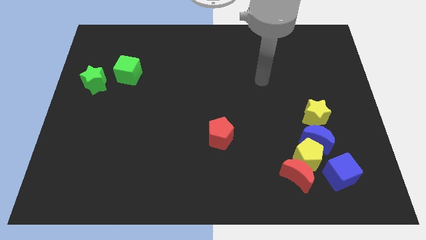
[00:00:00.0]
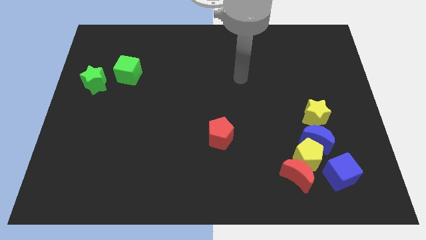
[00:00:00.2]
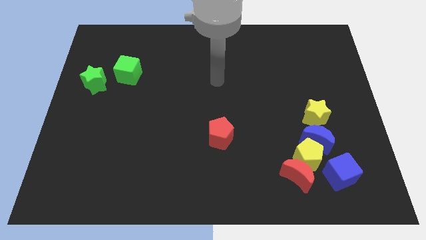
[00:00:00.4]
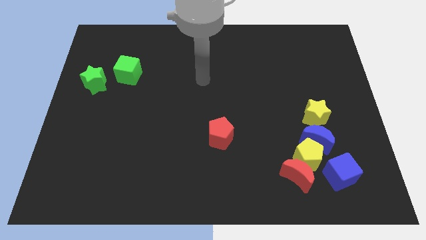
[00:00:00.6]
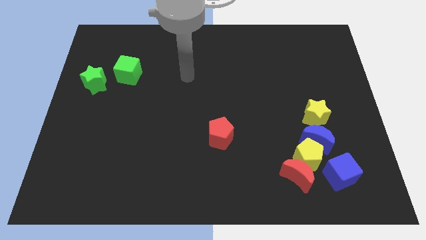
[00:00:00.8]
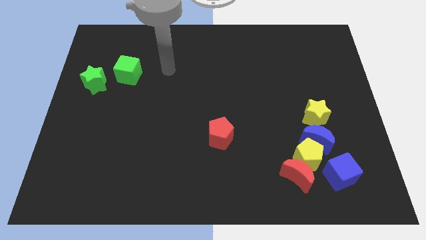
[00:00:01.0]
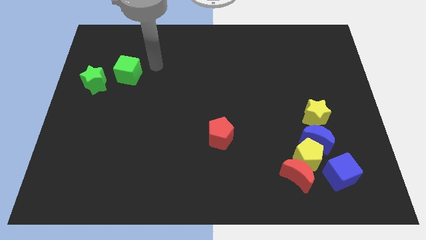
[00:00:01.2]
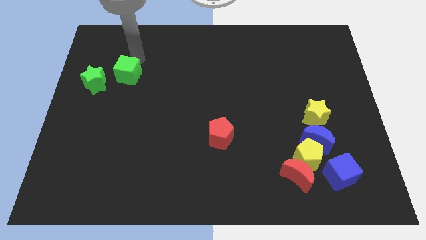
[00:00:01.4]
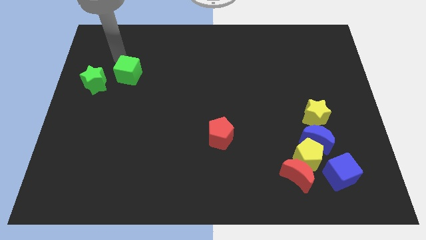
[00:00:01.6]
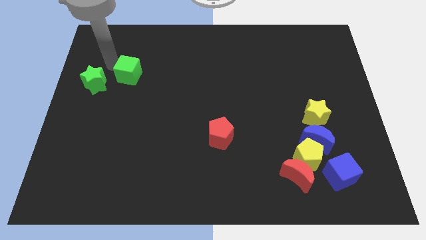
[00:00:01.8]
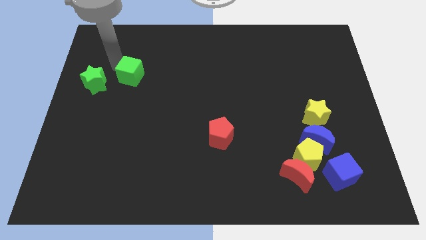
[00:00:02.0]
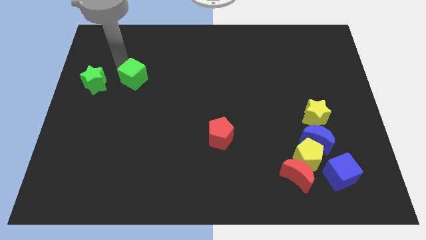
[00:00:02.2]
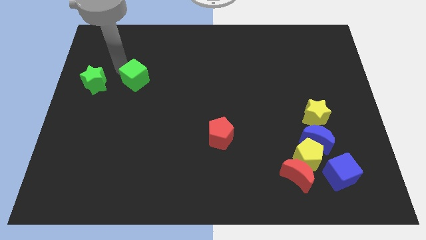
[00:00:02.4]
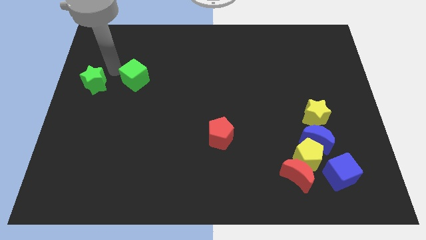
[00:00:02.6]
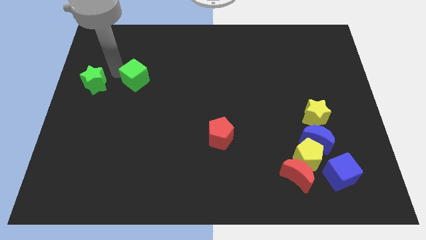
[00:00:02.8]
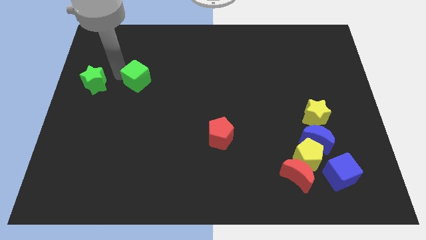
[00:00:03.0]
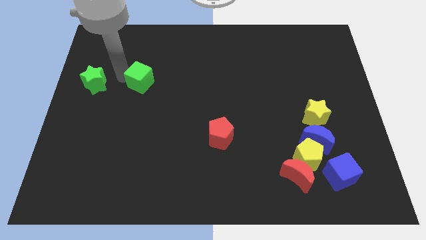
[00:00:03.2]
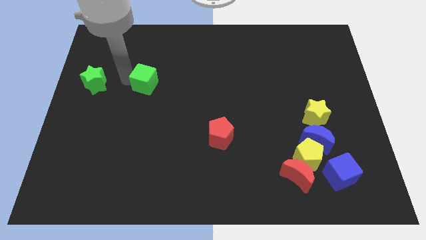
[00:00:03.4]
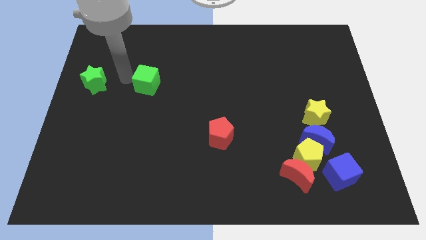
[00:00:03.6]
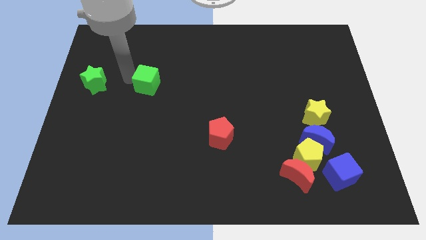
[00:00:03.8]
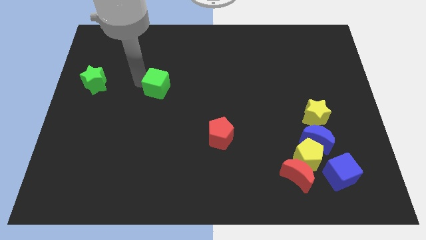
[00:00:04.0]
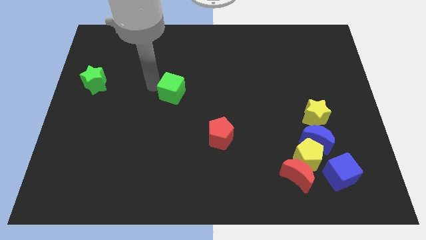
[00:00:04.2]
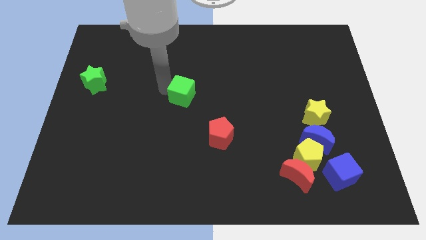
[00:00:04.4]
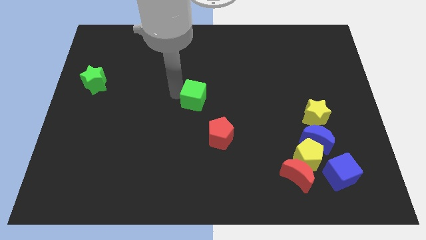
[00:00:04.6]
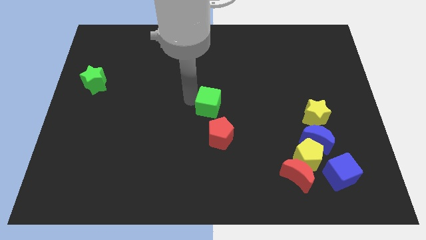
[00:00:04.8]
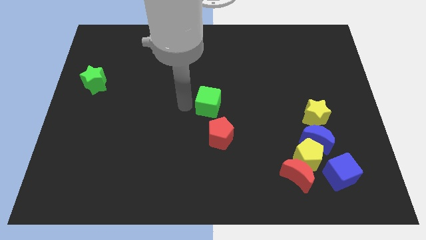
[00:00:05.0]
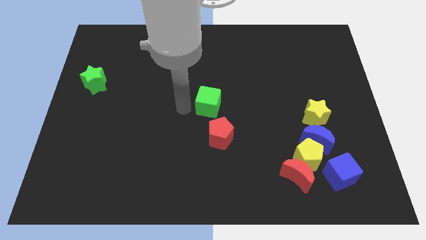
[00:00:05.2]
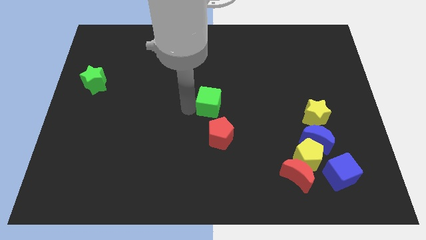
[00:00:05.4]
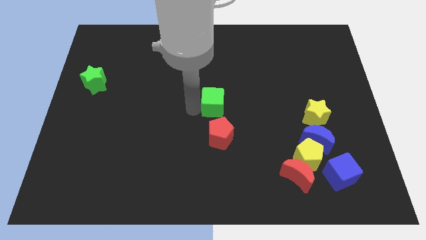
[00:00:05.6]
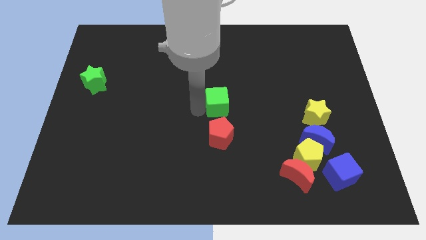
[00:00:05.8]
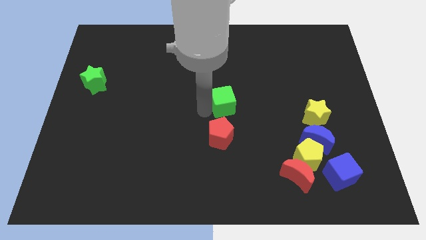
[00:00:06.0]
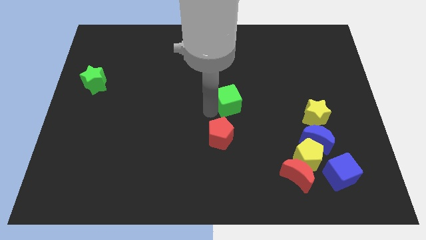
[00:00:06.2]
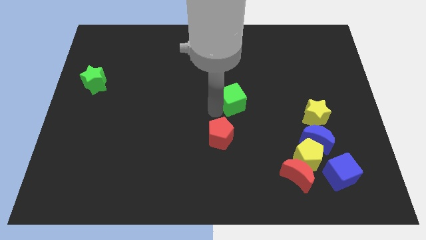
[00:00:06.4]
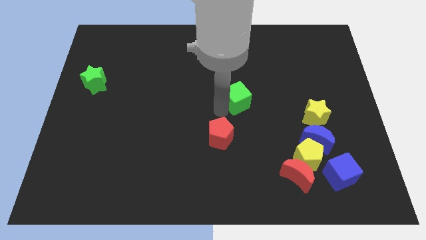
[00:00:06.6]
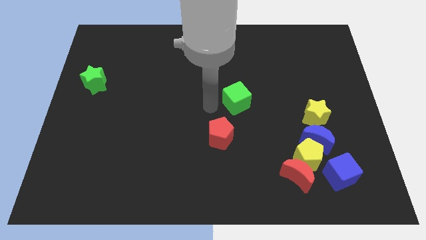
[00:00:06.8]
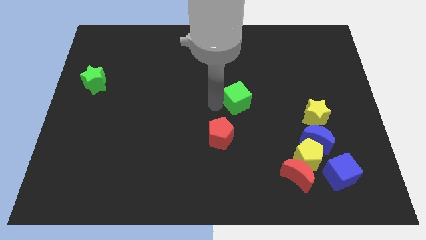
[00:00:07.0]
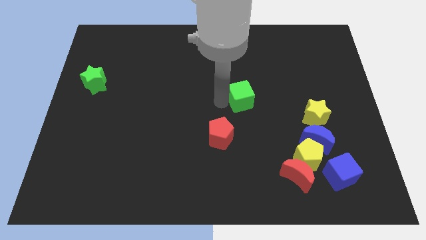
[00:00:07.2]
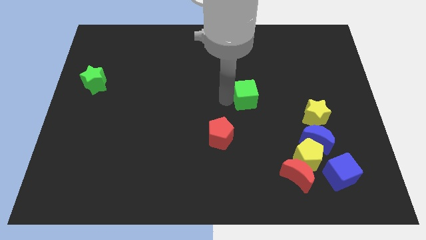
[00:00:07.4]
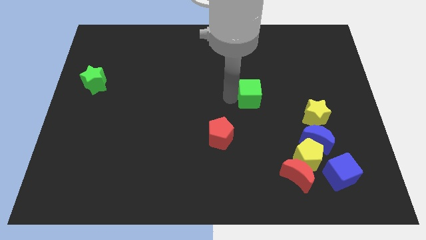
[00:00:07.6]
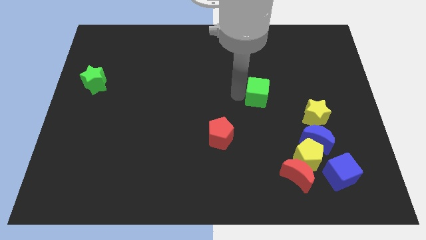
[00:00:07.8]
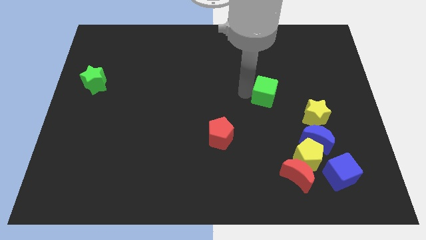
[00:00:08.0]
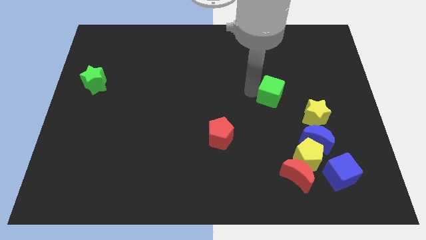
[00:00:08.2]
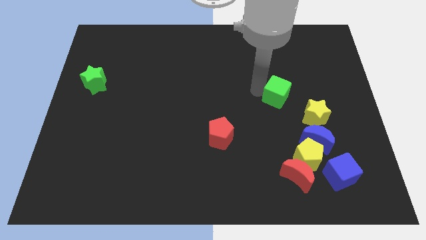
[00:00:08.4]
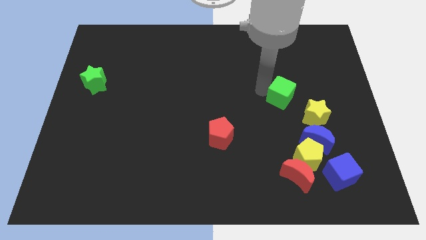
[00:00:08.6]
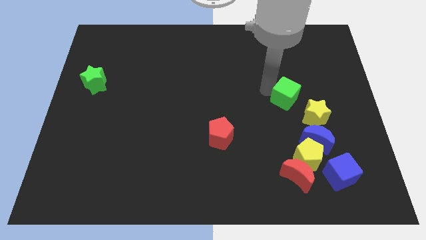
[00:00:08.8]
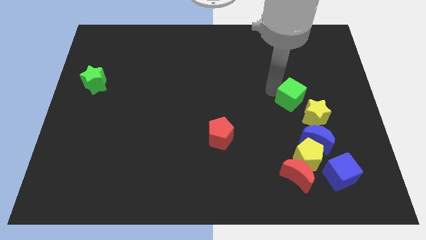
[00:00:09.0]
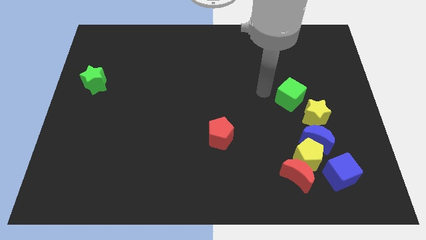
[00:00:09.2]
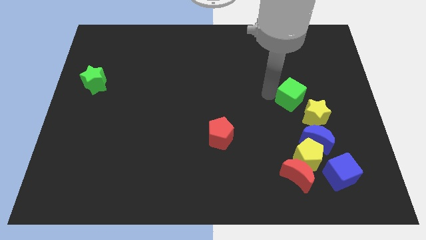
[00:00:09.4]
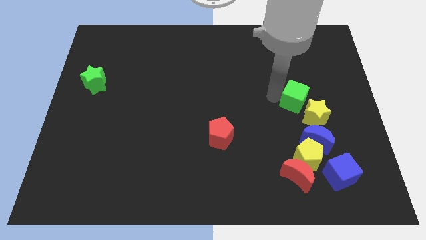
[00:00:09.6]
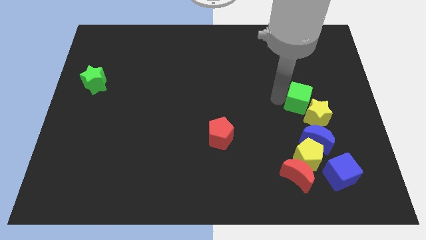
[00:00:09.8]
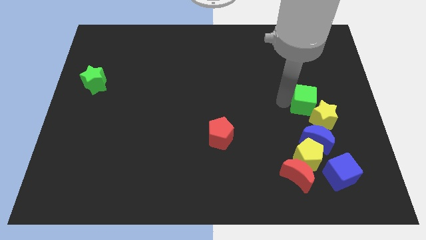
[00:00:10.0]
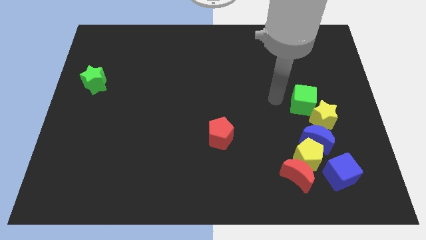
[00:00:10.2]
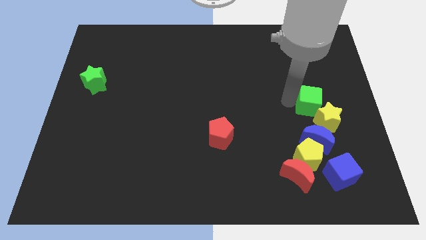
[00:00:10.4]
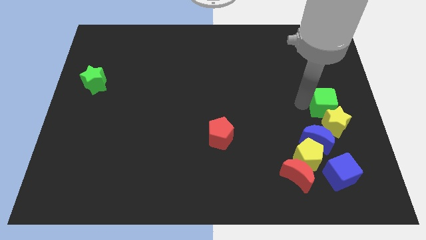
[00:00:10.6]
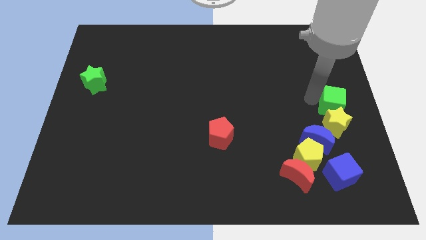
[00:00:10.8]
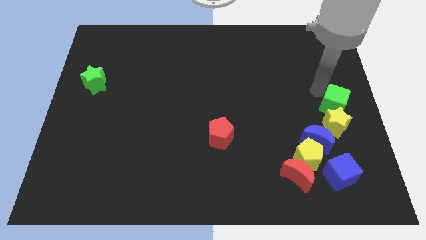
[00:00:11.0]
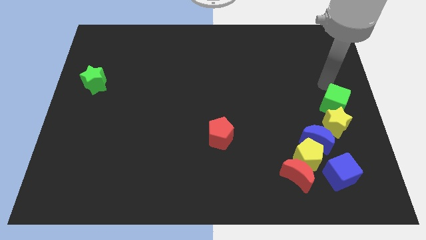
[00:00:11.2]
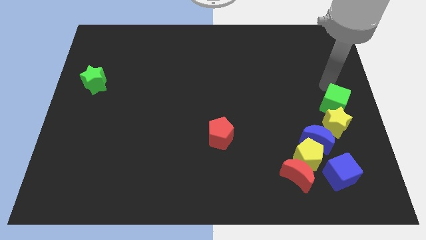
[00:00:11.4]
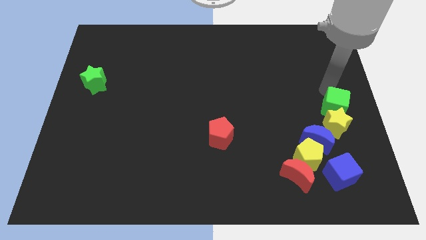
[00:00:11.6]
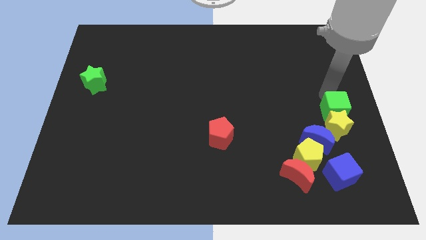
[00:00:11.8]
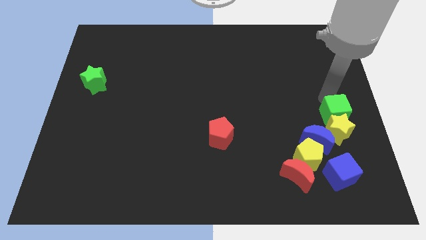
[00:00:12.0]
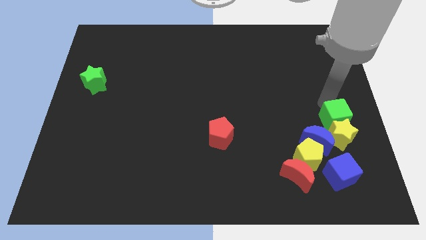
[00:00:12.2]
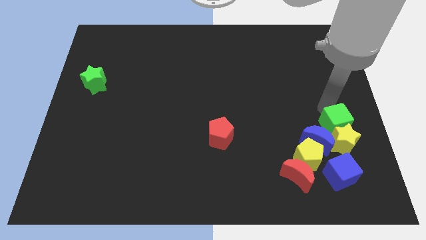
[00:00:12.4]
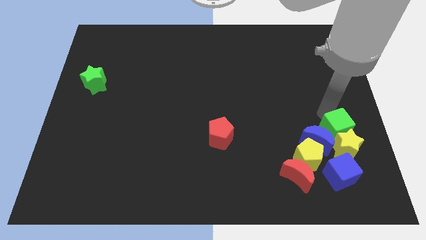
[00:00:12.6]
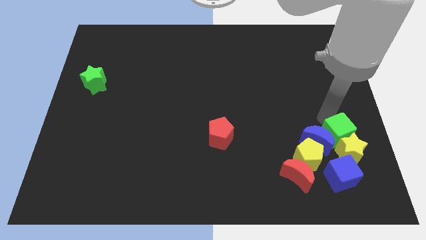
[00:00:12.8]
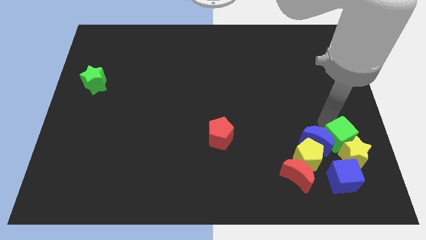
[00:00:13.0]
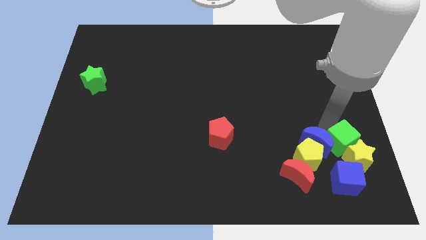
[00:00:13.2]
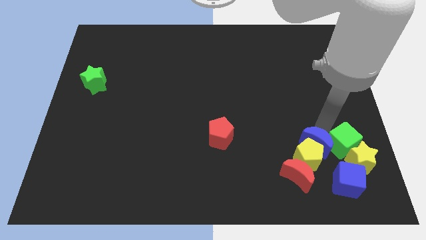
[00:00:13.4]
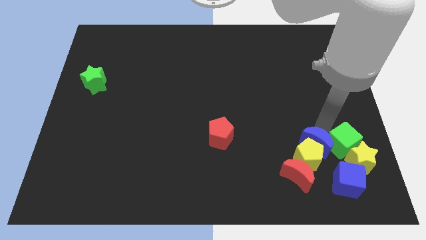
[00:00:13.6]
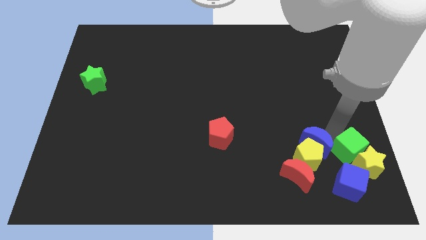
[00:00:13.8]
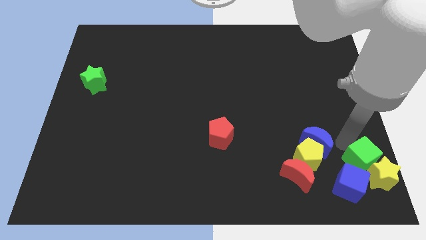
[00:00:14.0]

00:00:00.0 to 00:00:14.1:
move the green cube to the right of the red moon
